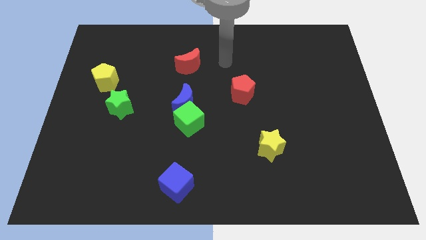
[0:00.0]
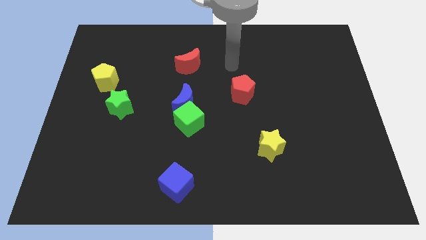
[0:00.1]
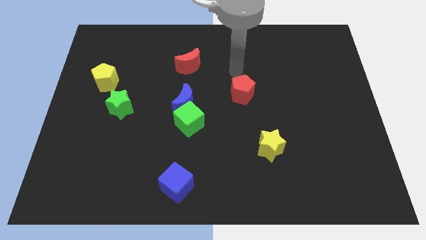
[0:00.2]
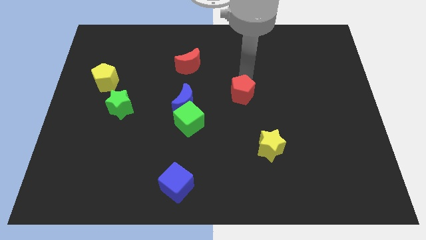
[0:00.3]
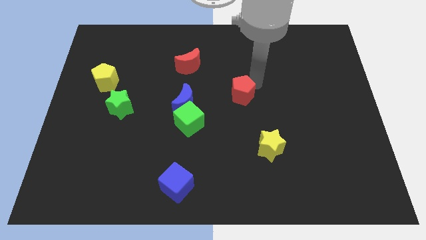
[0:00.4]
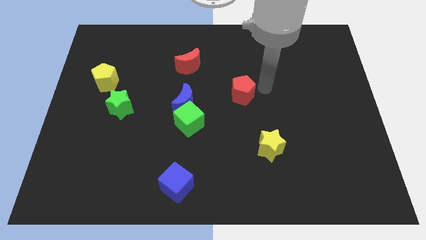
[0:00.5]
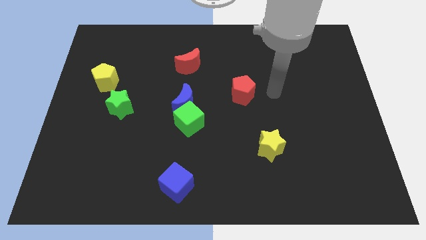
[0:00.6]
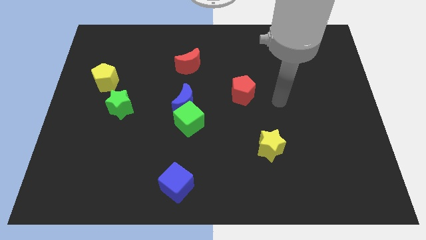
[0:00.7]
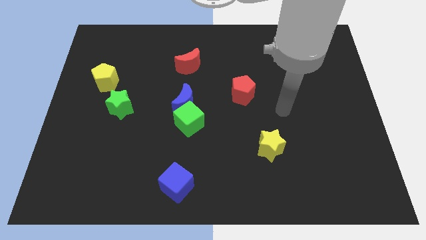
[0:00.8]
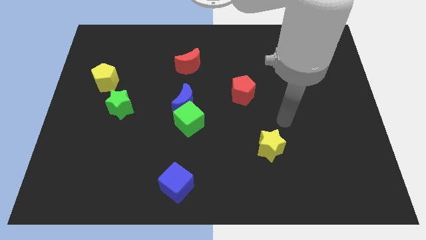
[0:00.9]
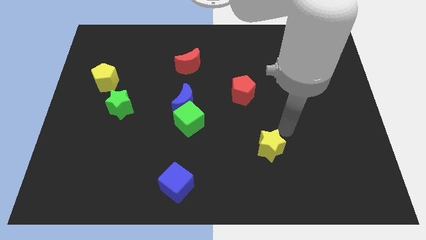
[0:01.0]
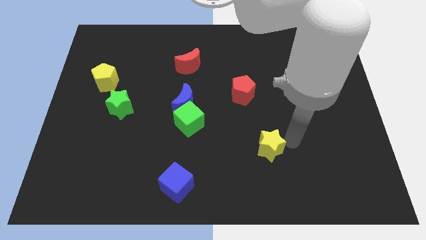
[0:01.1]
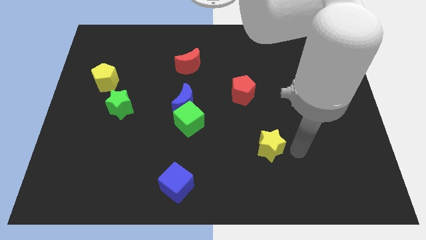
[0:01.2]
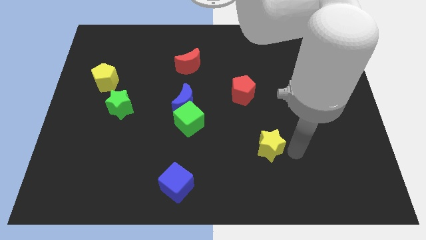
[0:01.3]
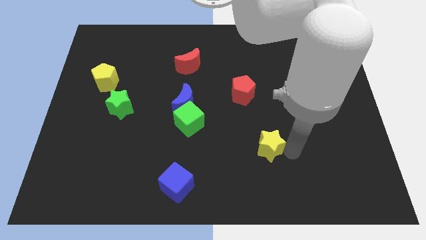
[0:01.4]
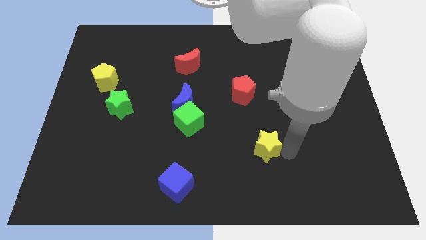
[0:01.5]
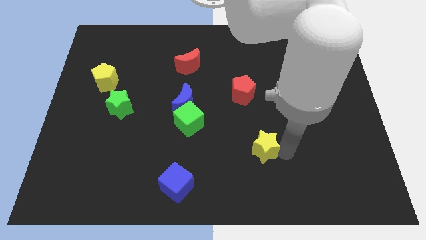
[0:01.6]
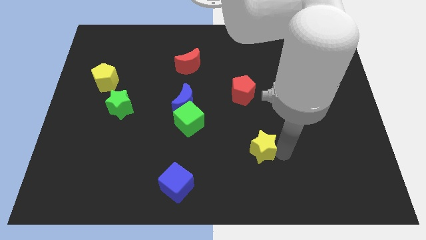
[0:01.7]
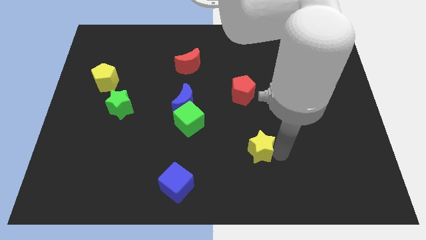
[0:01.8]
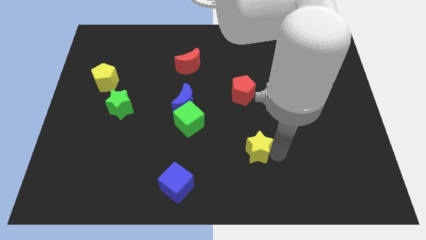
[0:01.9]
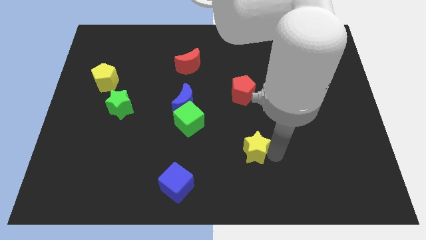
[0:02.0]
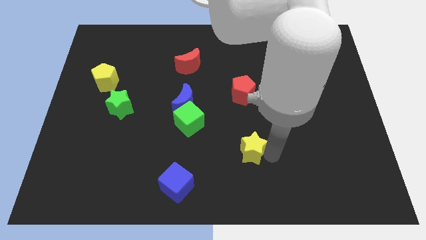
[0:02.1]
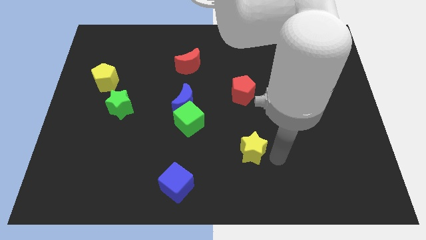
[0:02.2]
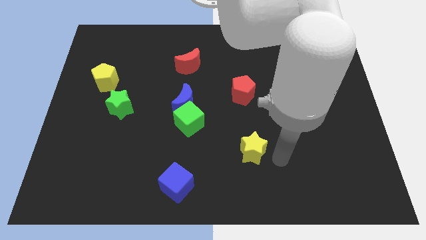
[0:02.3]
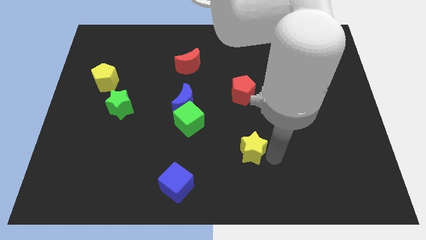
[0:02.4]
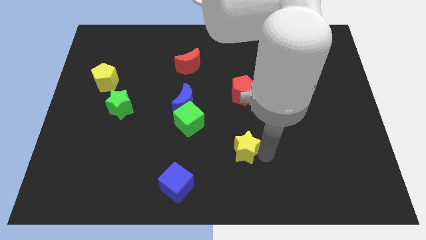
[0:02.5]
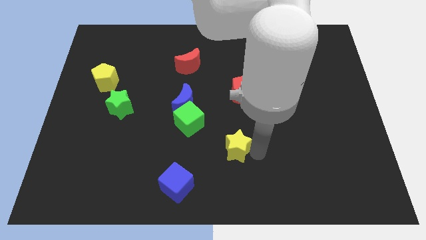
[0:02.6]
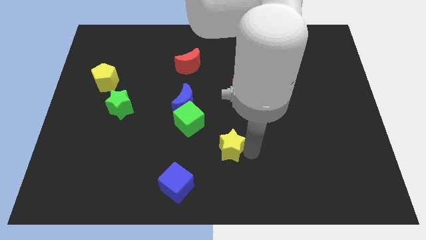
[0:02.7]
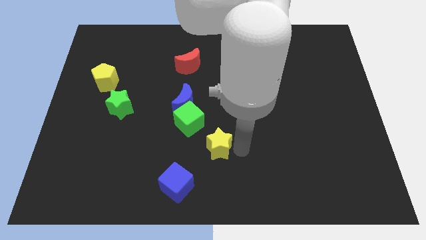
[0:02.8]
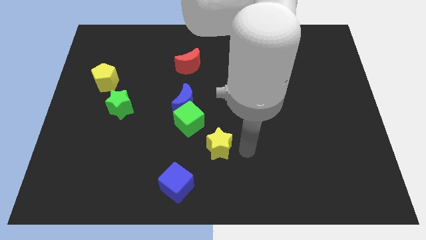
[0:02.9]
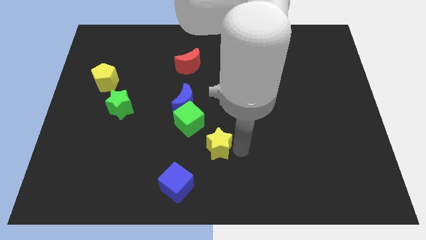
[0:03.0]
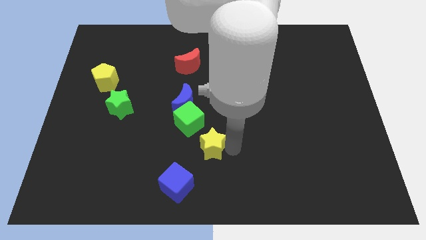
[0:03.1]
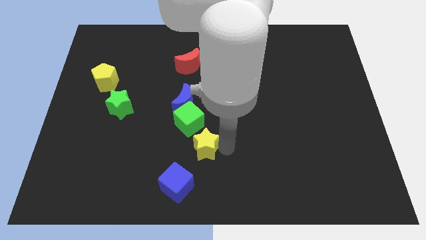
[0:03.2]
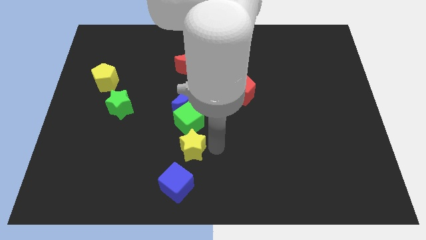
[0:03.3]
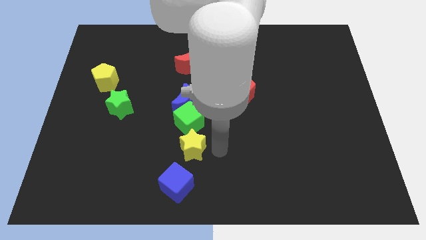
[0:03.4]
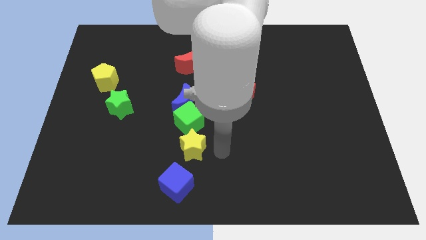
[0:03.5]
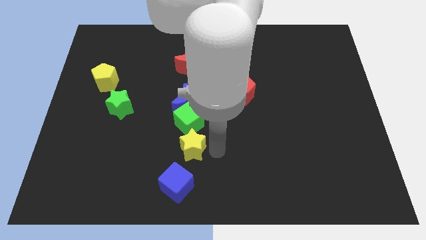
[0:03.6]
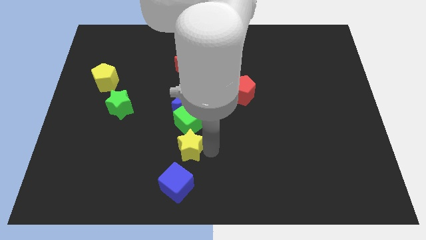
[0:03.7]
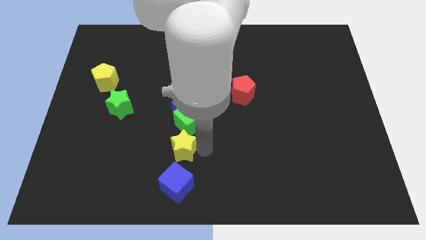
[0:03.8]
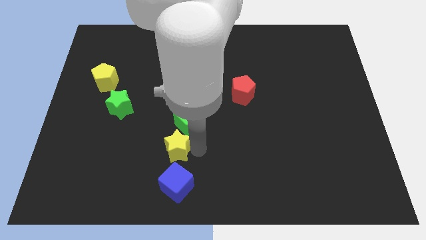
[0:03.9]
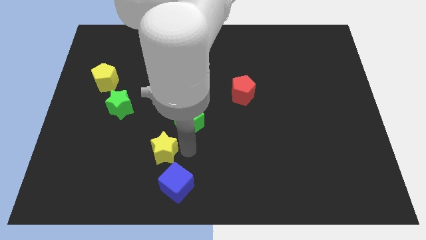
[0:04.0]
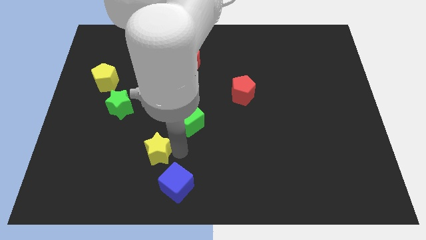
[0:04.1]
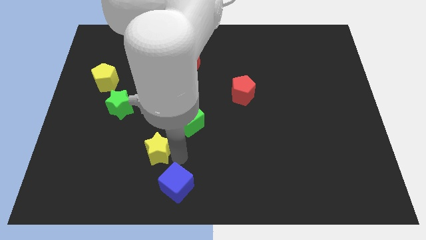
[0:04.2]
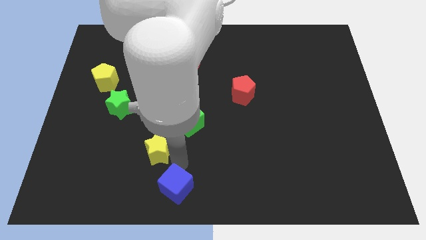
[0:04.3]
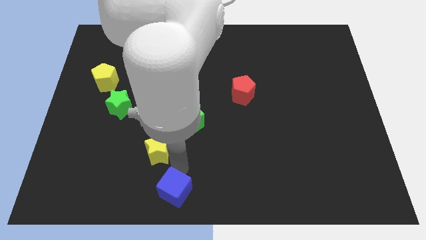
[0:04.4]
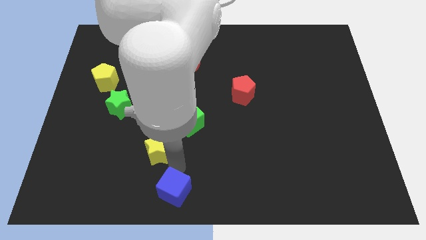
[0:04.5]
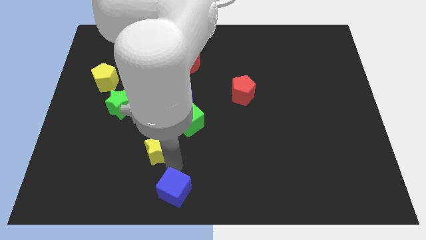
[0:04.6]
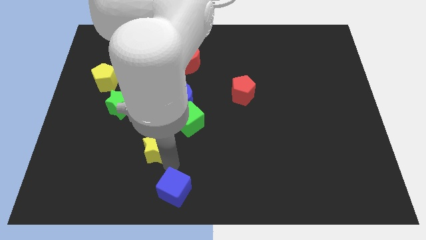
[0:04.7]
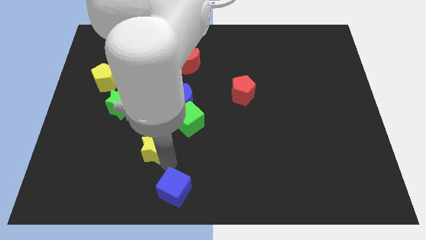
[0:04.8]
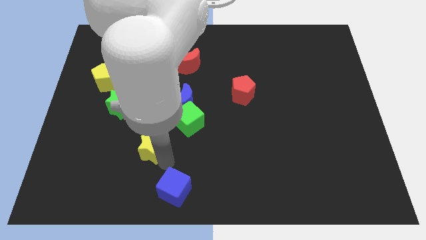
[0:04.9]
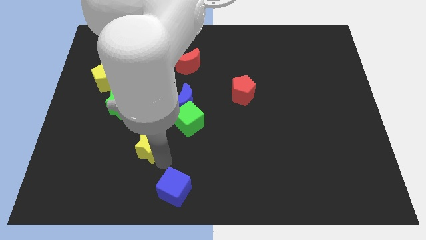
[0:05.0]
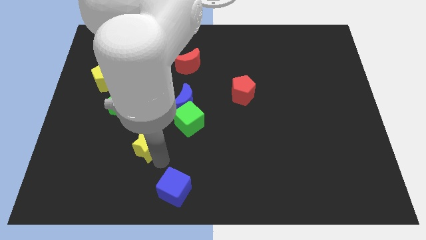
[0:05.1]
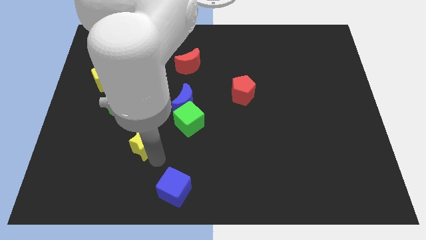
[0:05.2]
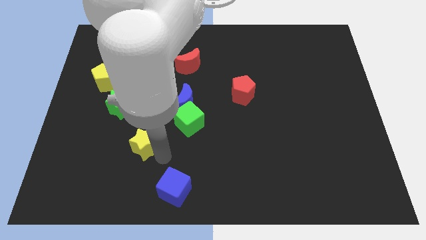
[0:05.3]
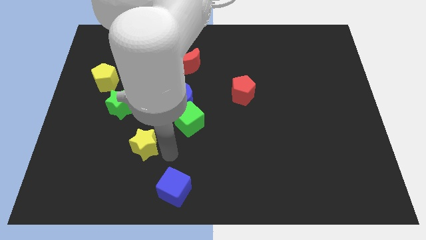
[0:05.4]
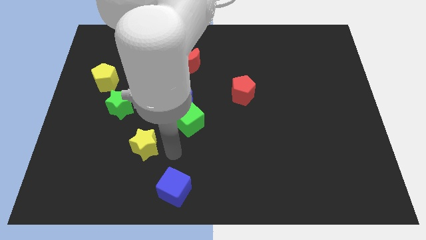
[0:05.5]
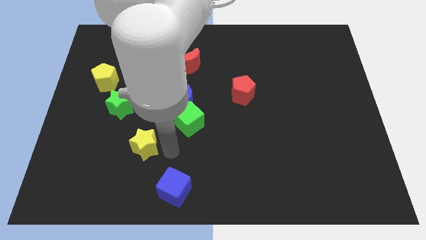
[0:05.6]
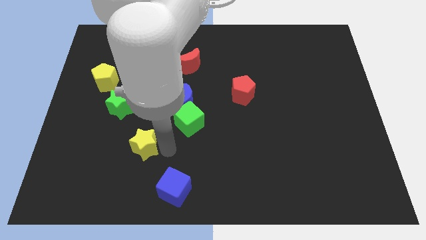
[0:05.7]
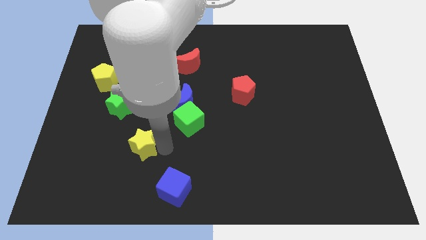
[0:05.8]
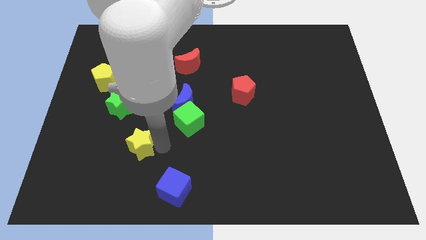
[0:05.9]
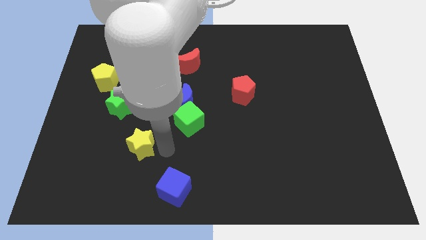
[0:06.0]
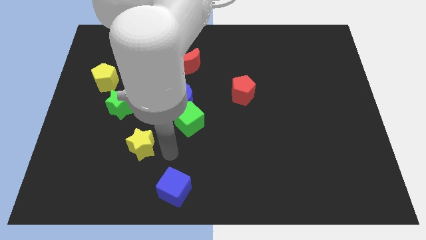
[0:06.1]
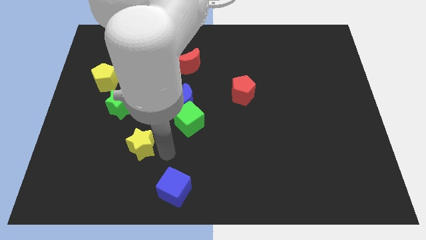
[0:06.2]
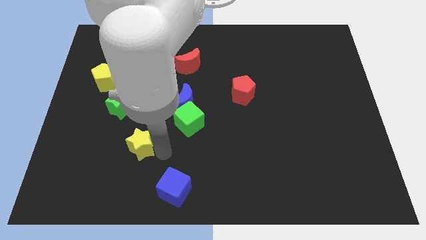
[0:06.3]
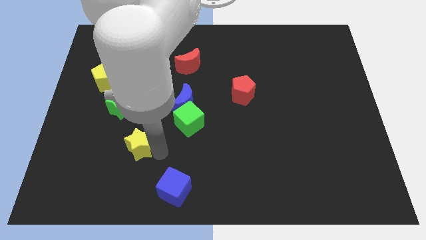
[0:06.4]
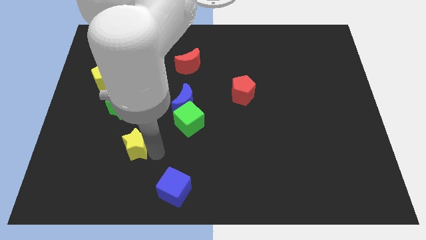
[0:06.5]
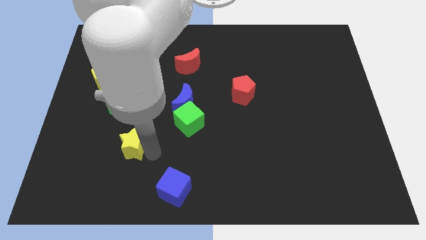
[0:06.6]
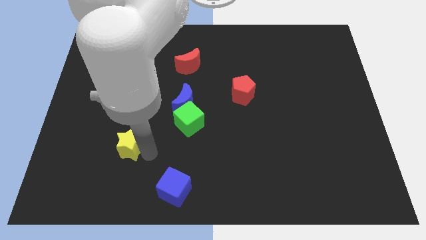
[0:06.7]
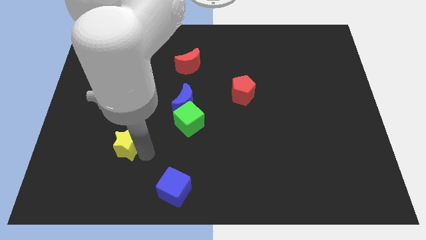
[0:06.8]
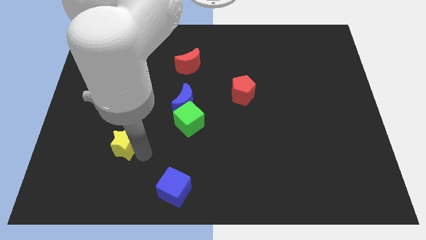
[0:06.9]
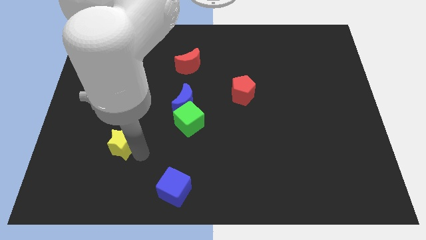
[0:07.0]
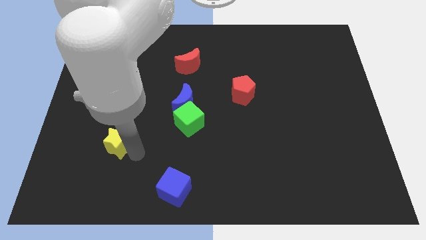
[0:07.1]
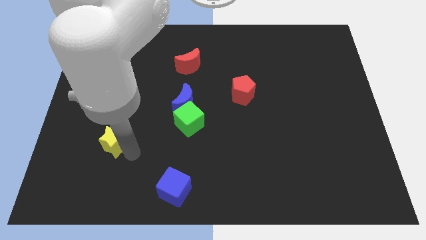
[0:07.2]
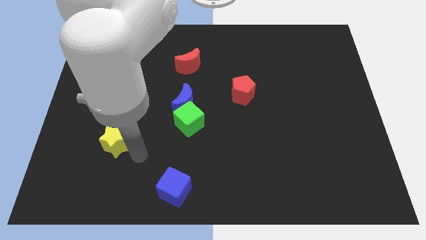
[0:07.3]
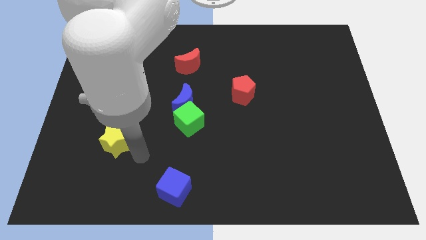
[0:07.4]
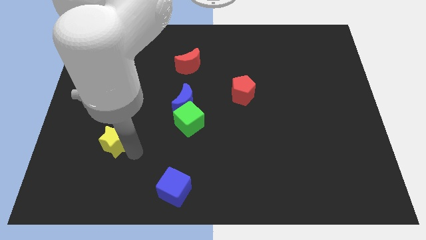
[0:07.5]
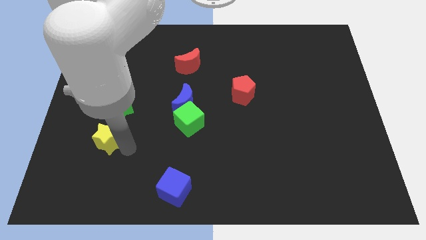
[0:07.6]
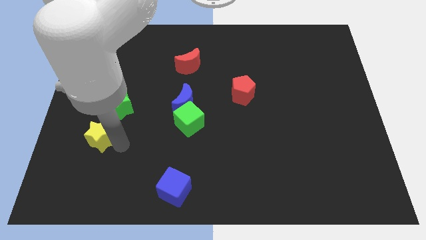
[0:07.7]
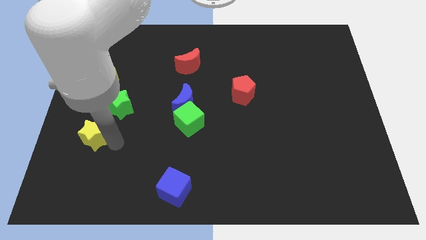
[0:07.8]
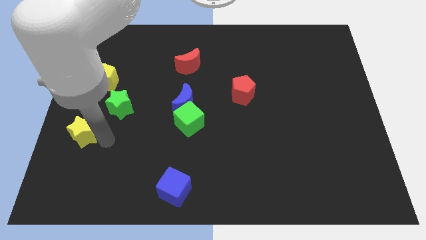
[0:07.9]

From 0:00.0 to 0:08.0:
move the yellow star to the left side of the board
